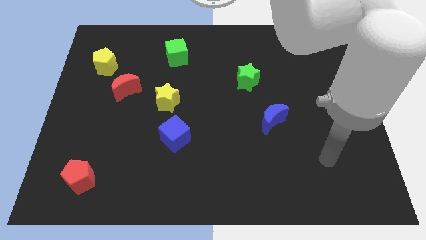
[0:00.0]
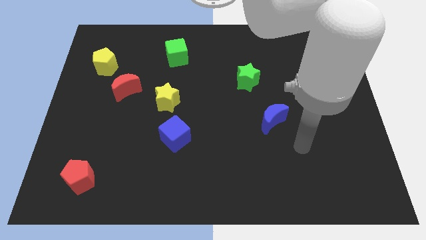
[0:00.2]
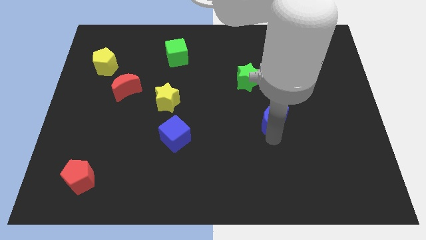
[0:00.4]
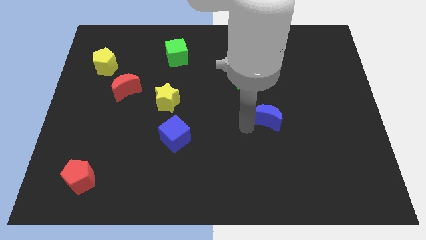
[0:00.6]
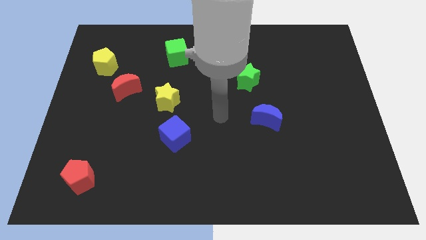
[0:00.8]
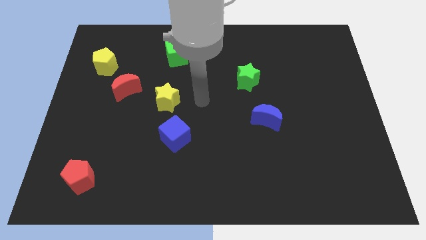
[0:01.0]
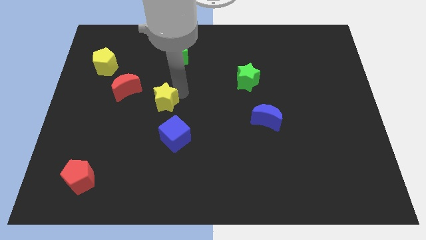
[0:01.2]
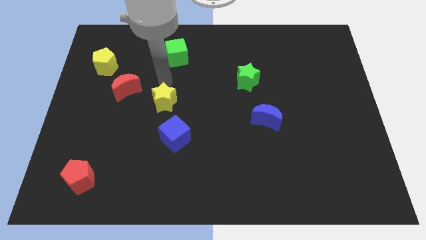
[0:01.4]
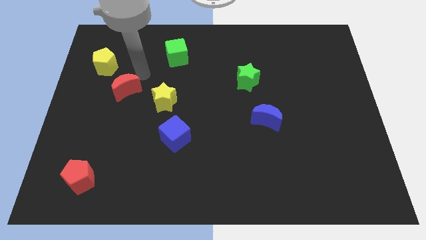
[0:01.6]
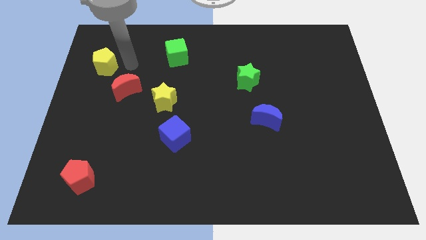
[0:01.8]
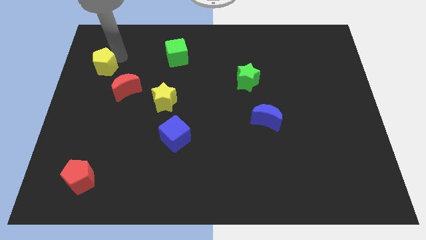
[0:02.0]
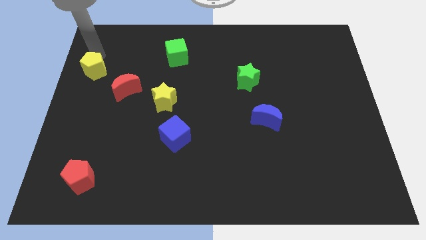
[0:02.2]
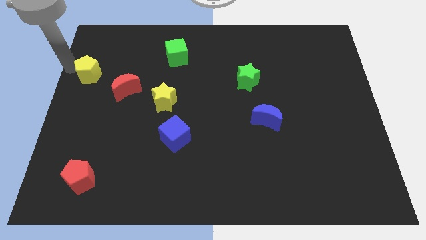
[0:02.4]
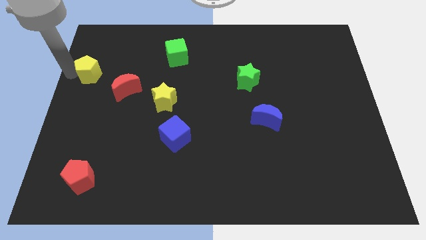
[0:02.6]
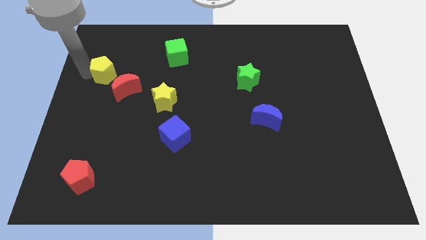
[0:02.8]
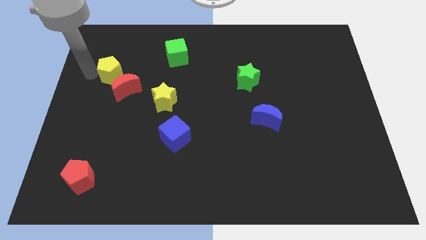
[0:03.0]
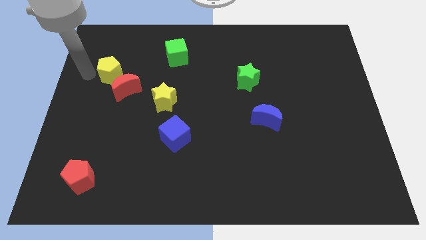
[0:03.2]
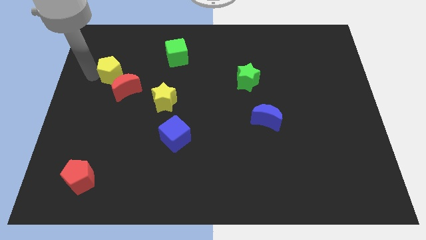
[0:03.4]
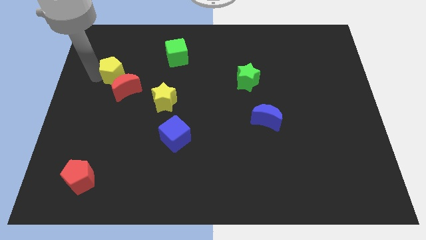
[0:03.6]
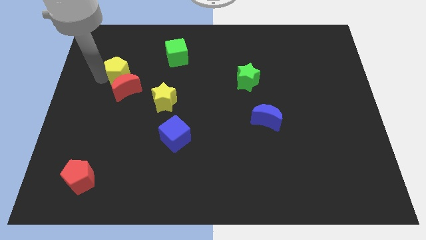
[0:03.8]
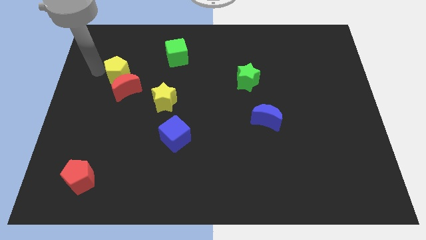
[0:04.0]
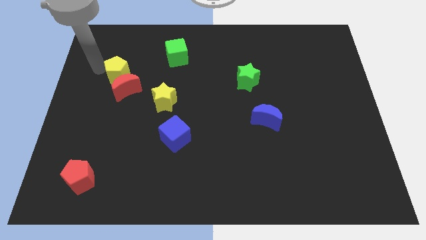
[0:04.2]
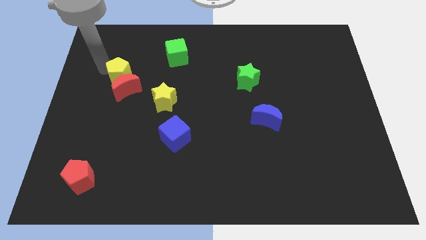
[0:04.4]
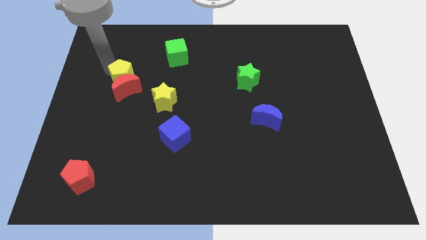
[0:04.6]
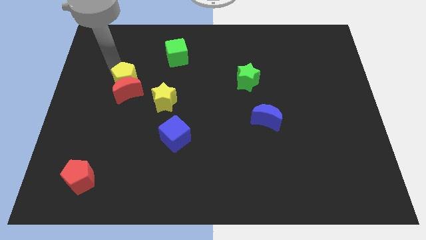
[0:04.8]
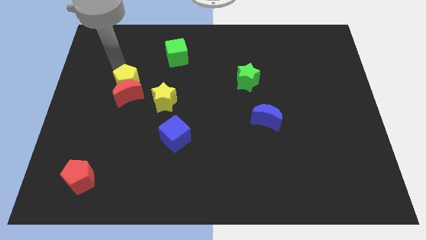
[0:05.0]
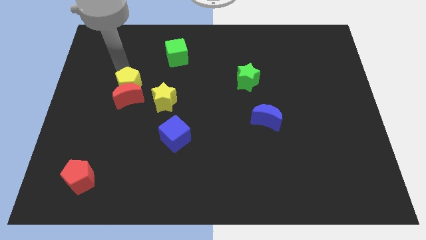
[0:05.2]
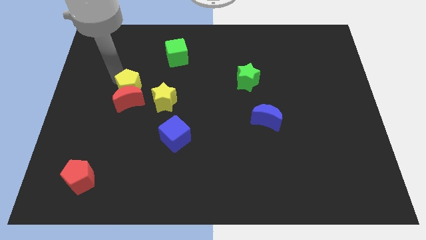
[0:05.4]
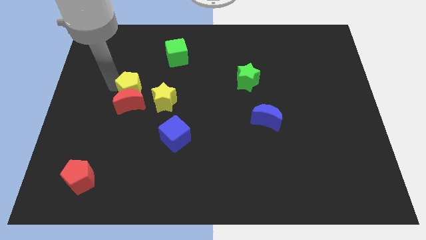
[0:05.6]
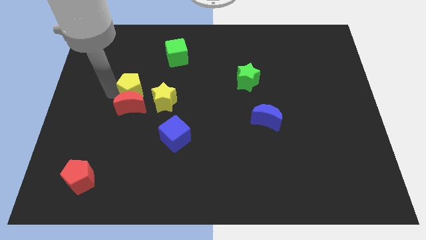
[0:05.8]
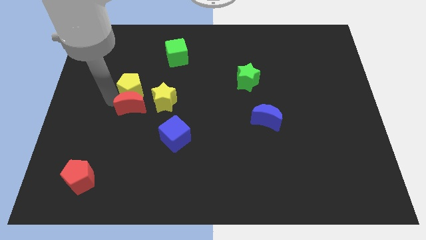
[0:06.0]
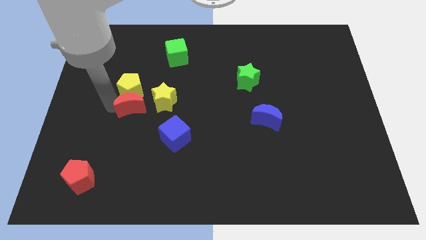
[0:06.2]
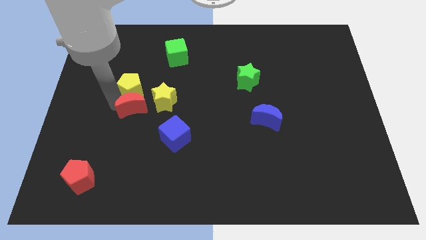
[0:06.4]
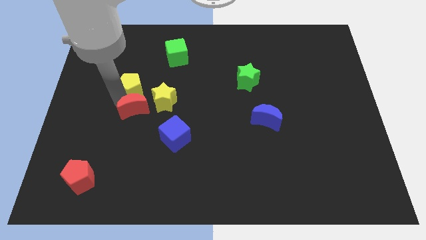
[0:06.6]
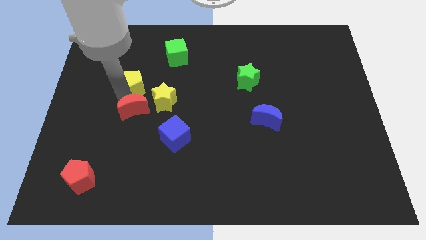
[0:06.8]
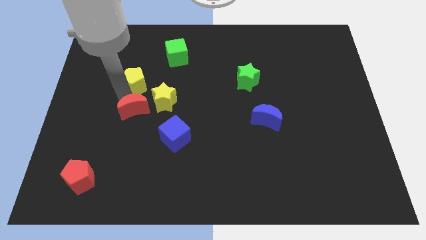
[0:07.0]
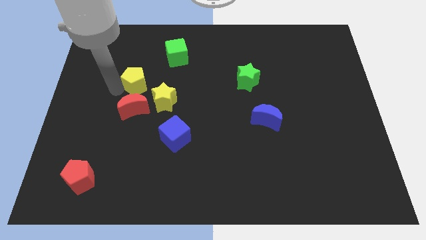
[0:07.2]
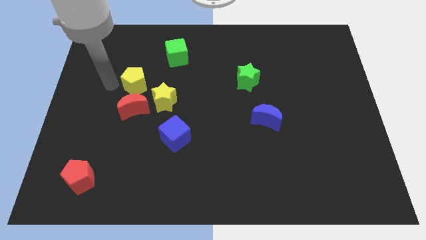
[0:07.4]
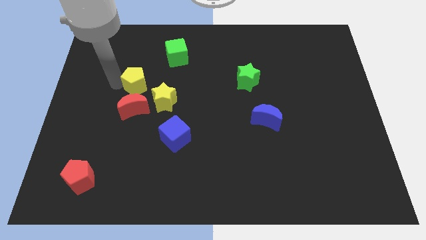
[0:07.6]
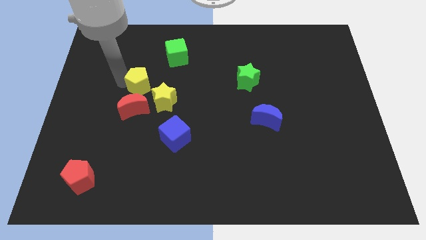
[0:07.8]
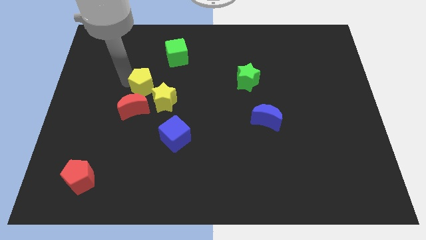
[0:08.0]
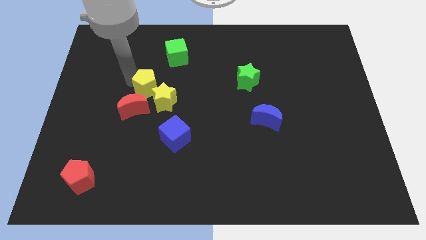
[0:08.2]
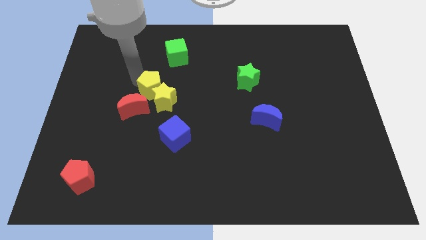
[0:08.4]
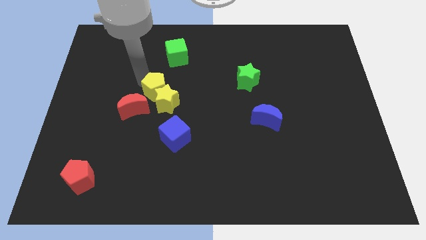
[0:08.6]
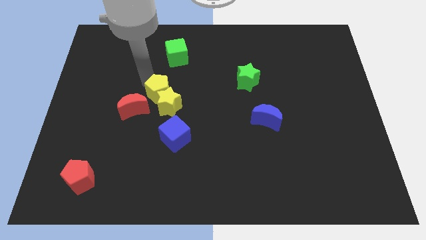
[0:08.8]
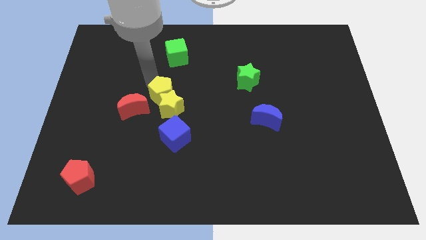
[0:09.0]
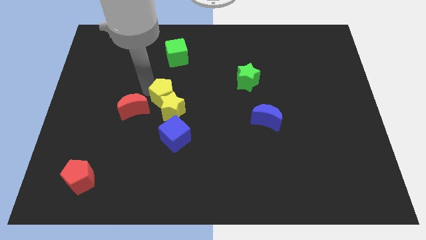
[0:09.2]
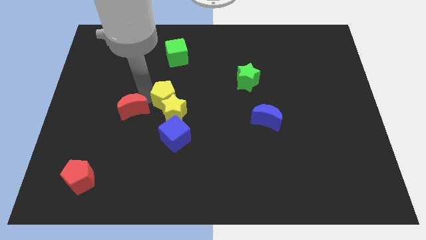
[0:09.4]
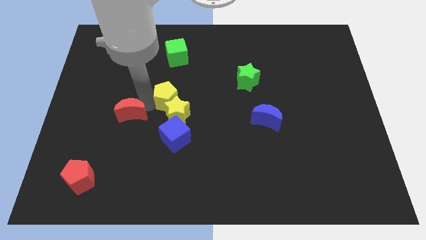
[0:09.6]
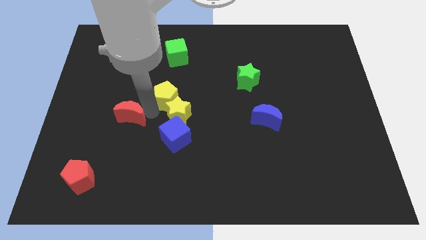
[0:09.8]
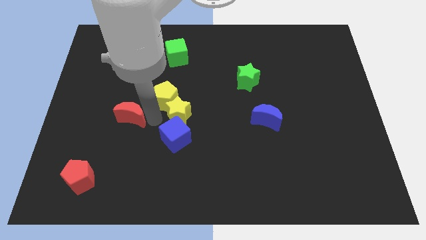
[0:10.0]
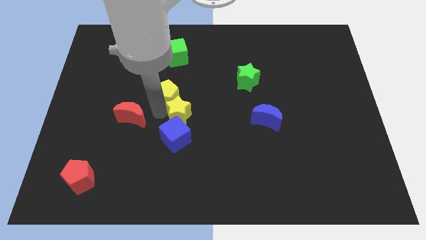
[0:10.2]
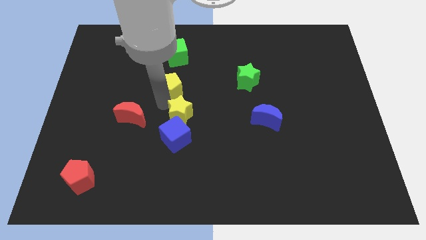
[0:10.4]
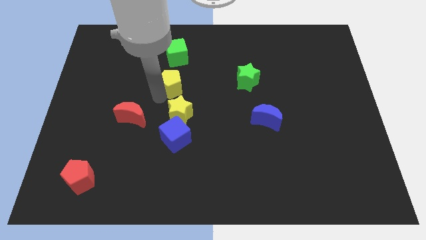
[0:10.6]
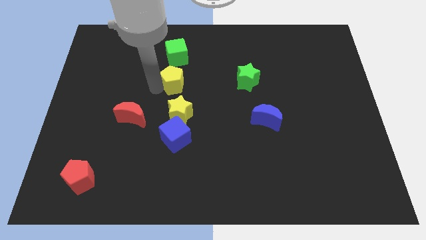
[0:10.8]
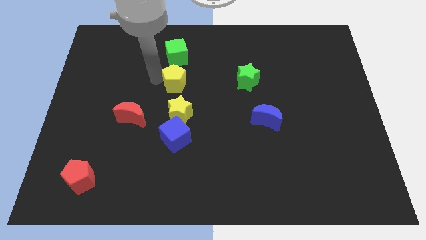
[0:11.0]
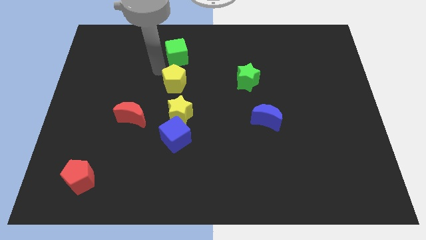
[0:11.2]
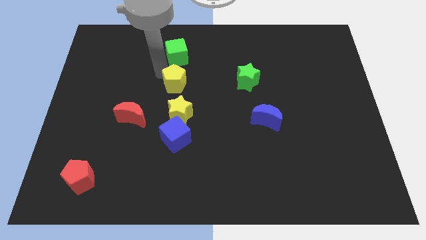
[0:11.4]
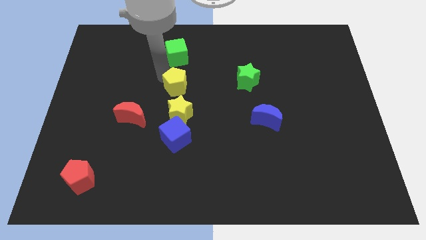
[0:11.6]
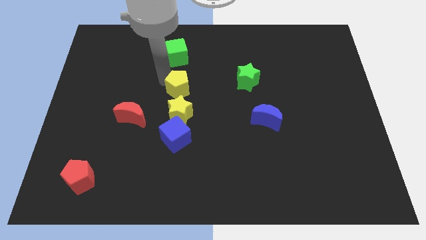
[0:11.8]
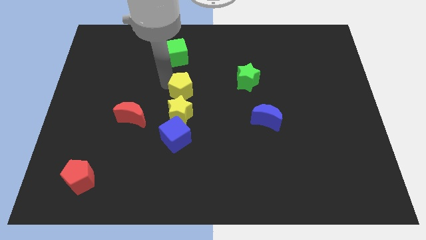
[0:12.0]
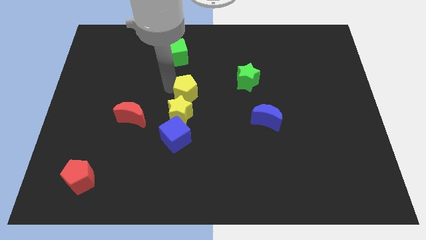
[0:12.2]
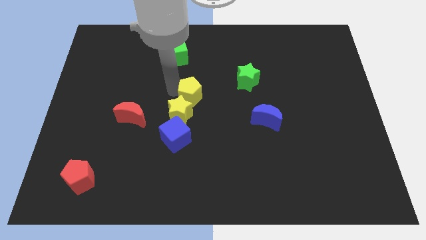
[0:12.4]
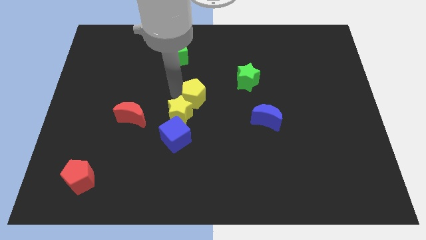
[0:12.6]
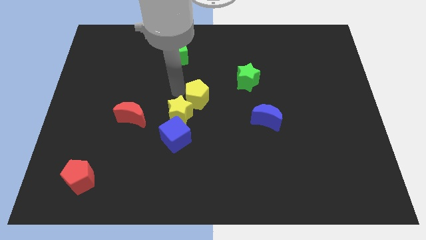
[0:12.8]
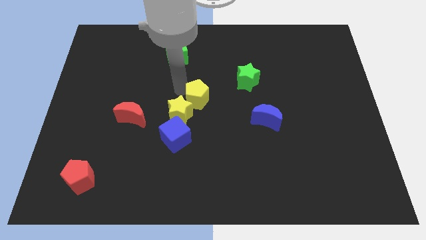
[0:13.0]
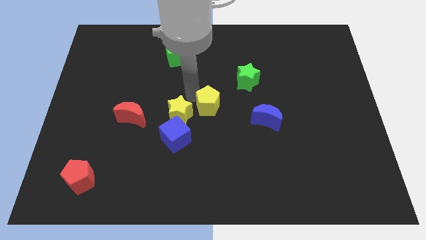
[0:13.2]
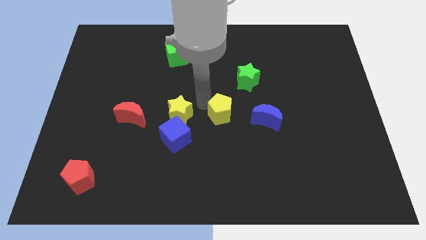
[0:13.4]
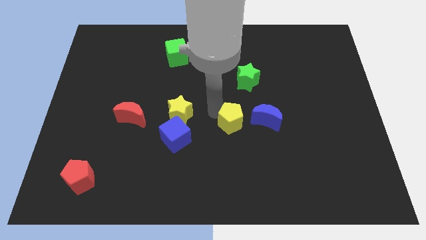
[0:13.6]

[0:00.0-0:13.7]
push the yellow pentagon to the bottom of the green star
